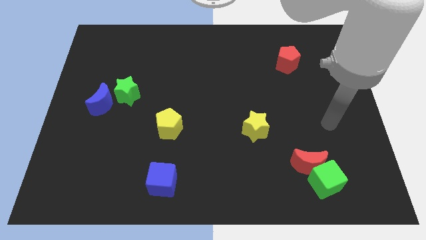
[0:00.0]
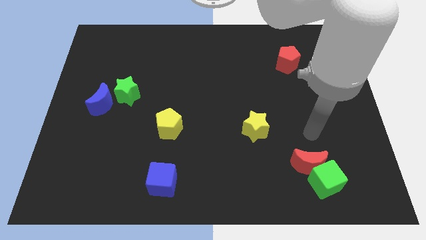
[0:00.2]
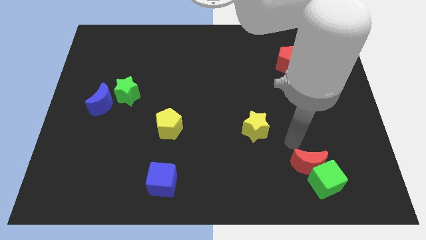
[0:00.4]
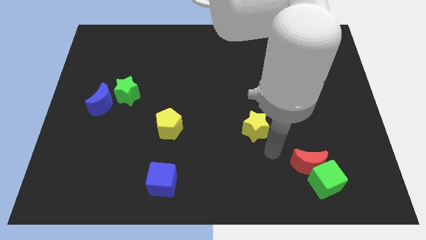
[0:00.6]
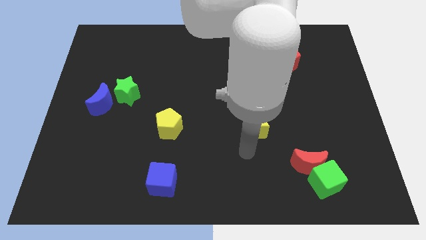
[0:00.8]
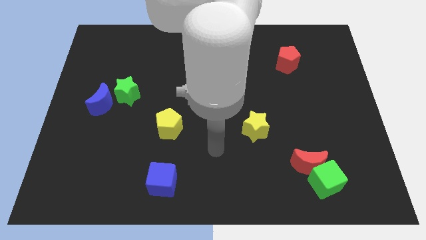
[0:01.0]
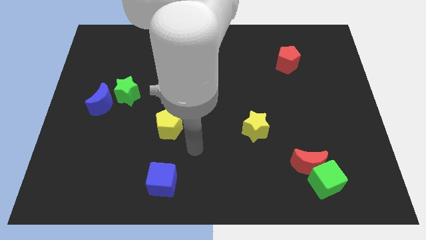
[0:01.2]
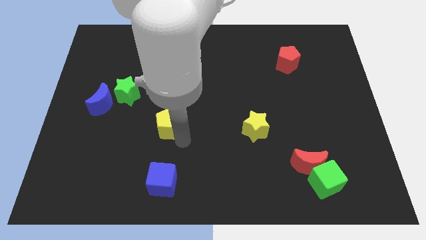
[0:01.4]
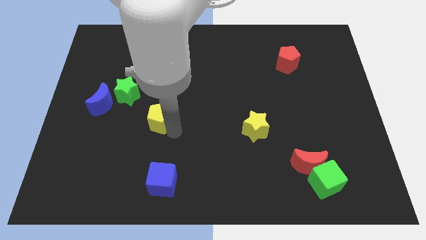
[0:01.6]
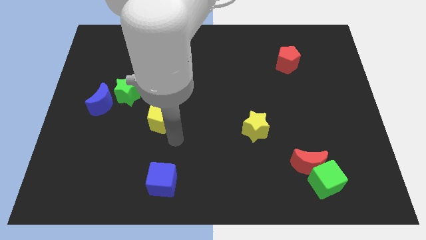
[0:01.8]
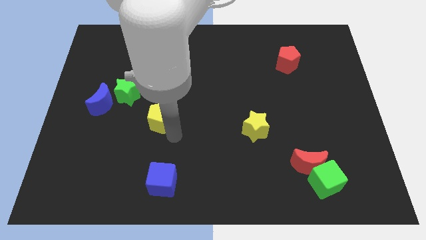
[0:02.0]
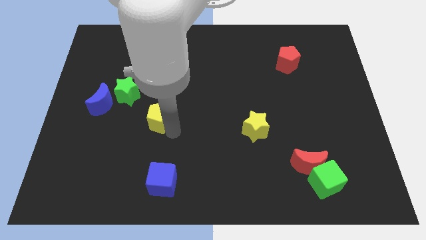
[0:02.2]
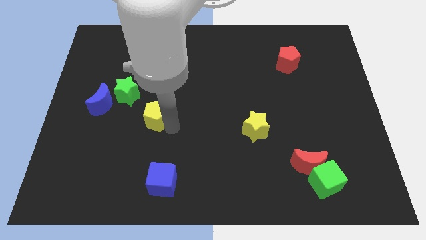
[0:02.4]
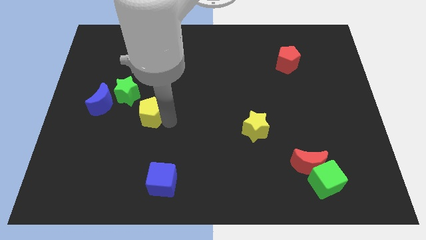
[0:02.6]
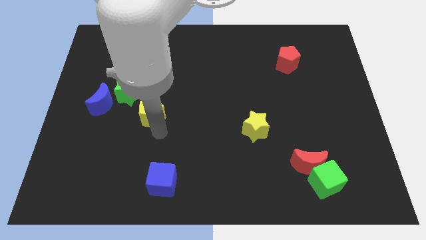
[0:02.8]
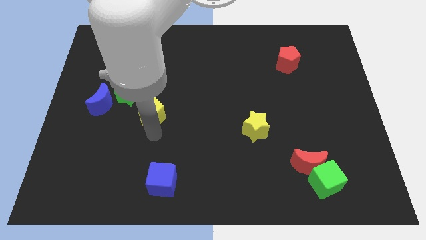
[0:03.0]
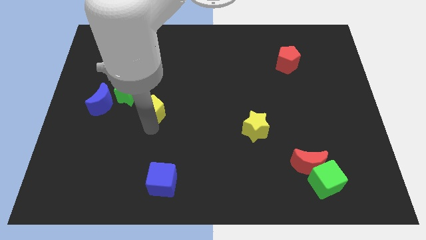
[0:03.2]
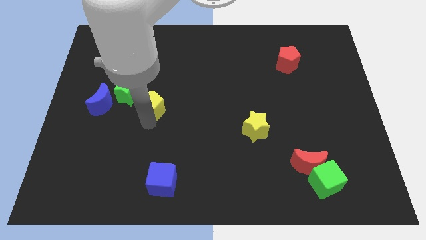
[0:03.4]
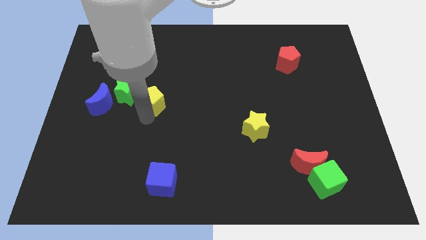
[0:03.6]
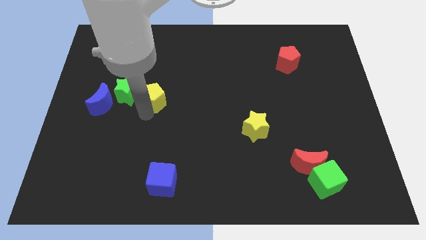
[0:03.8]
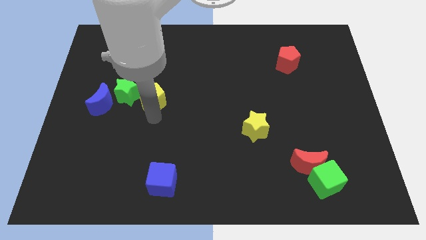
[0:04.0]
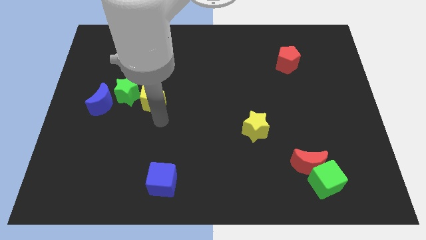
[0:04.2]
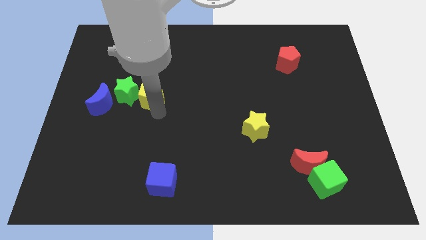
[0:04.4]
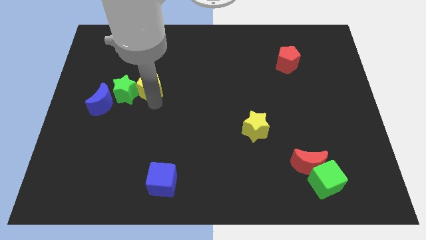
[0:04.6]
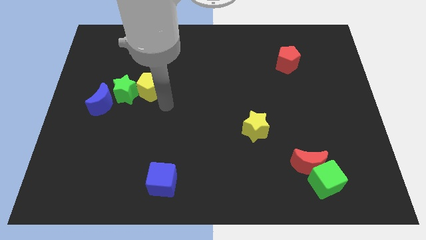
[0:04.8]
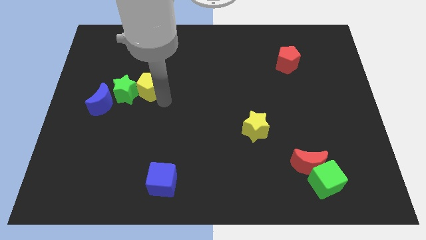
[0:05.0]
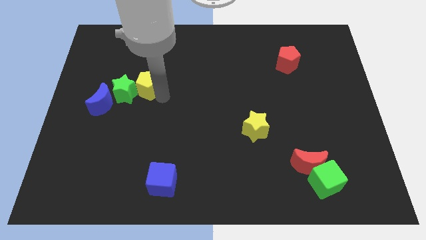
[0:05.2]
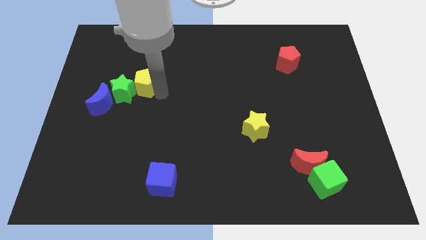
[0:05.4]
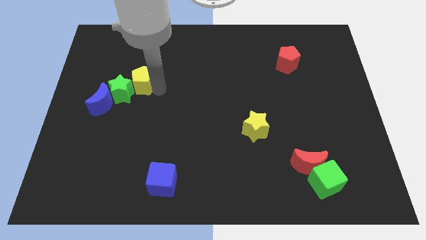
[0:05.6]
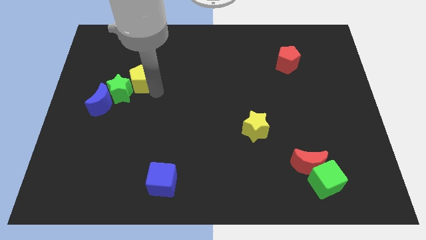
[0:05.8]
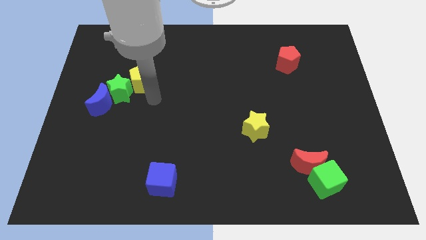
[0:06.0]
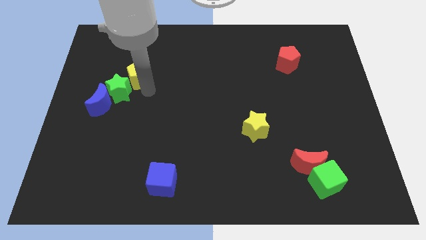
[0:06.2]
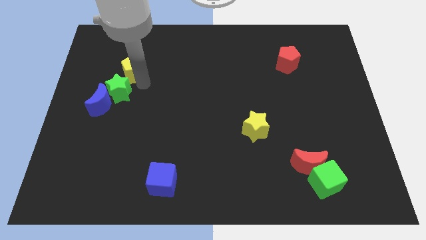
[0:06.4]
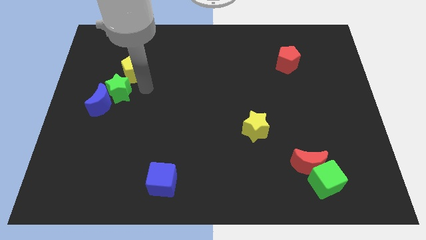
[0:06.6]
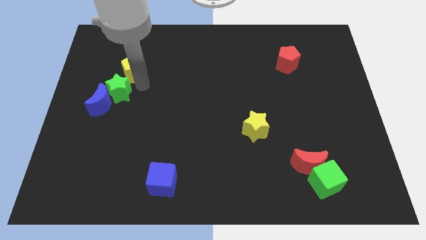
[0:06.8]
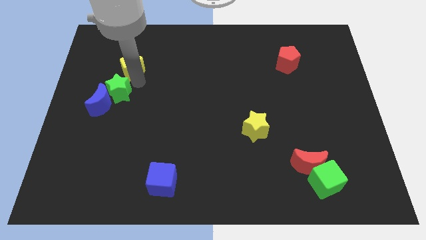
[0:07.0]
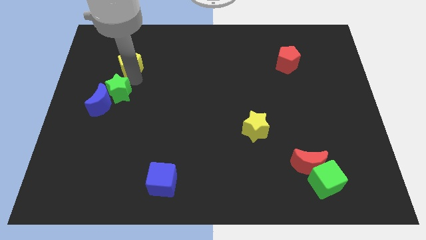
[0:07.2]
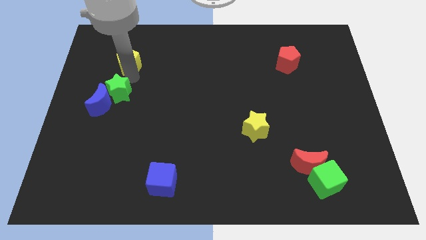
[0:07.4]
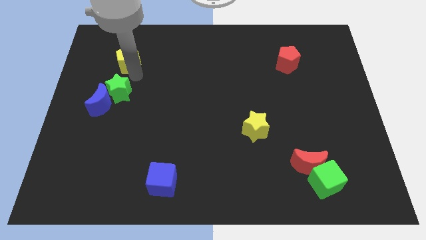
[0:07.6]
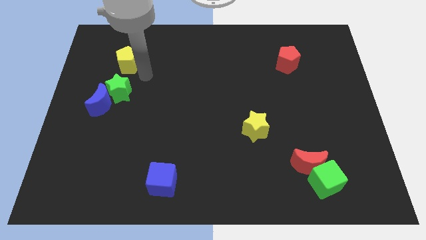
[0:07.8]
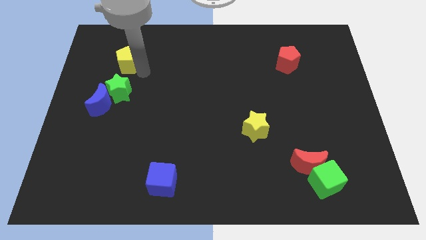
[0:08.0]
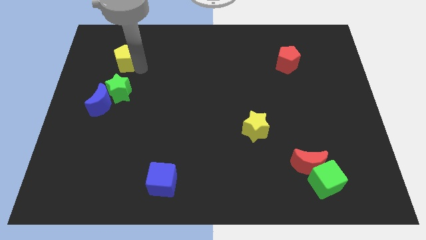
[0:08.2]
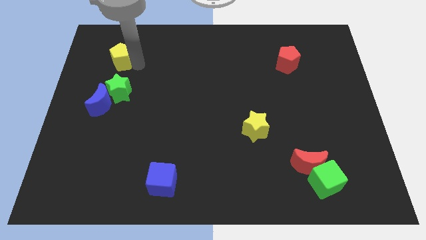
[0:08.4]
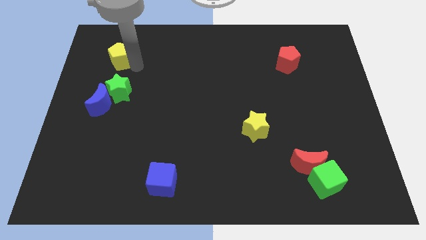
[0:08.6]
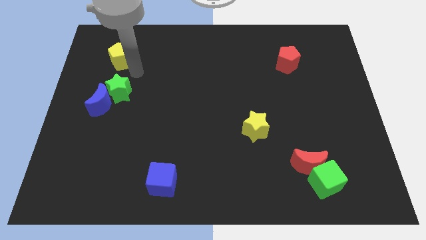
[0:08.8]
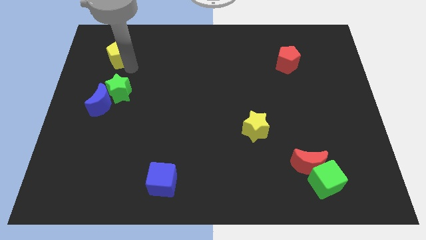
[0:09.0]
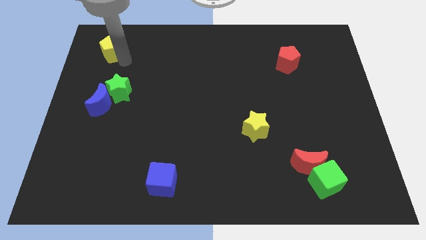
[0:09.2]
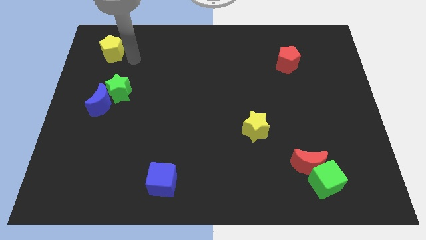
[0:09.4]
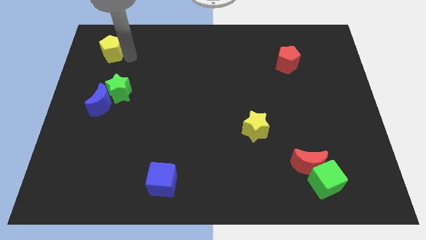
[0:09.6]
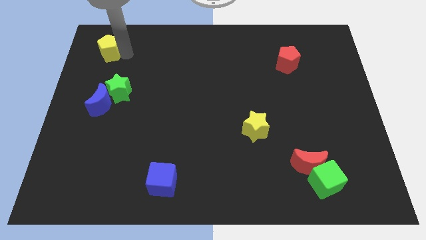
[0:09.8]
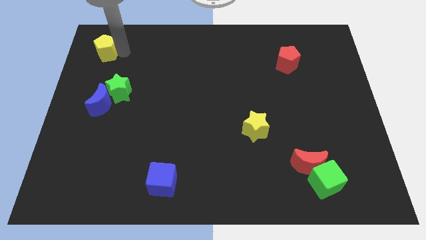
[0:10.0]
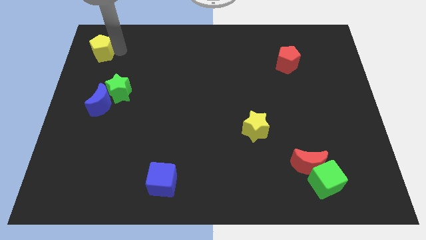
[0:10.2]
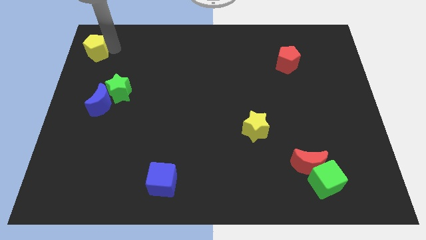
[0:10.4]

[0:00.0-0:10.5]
move the yellow pentagon to the top left corner

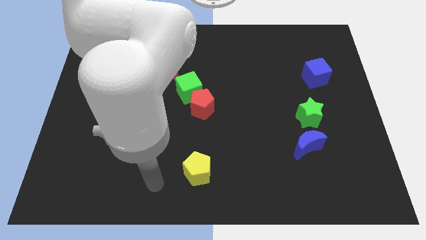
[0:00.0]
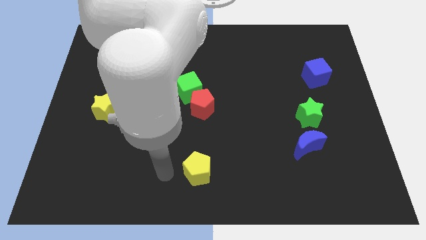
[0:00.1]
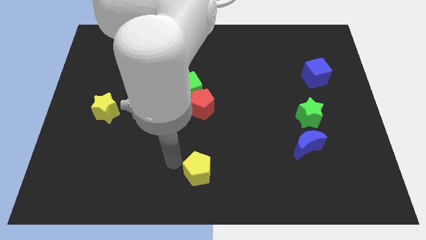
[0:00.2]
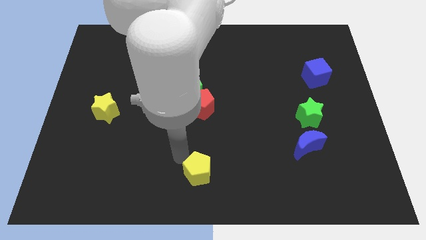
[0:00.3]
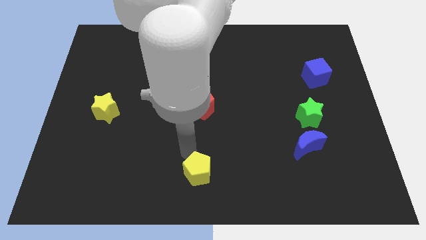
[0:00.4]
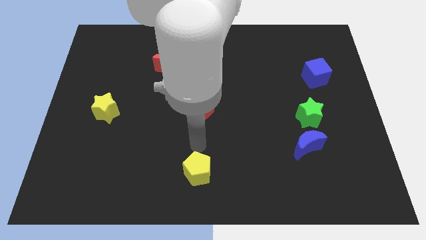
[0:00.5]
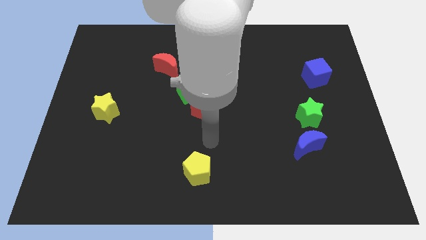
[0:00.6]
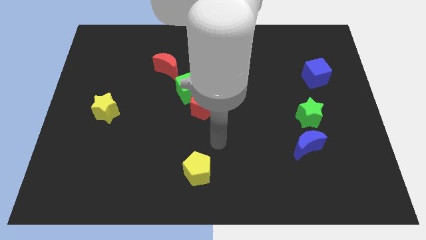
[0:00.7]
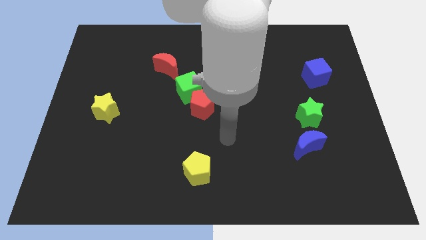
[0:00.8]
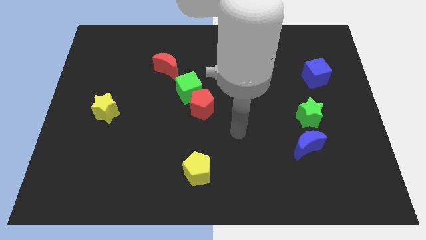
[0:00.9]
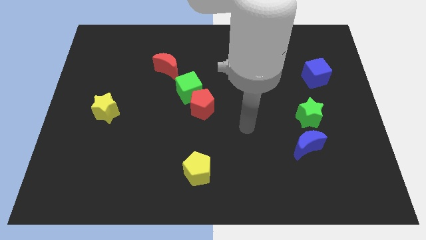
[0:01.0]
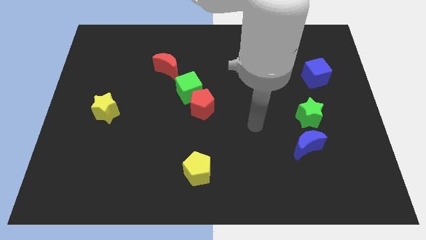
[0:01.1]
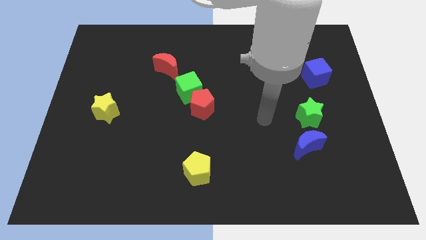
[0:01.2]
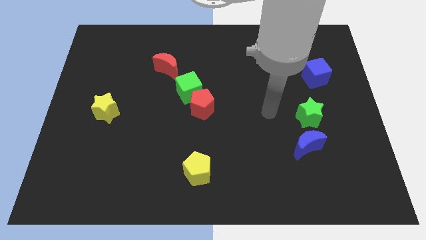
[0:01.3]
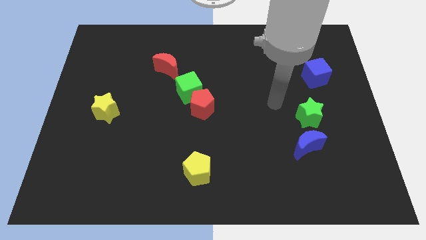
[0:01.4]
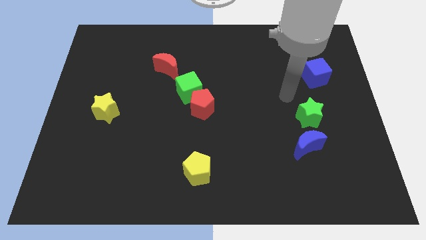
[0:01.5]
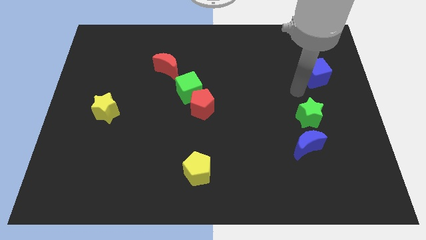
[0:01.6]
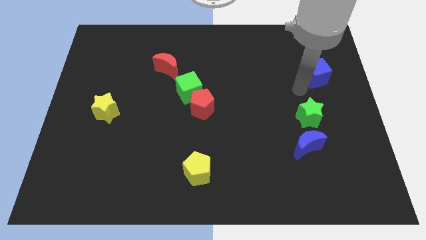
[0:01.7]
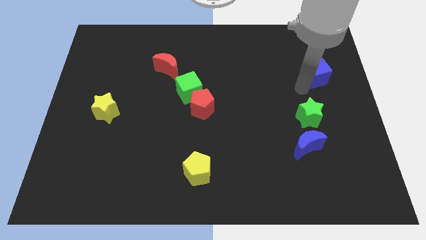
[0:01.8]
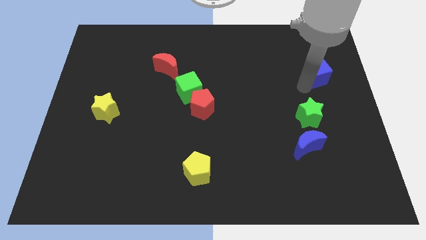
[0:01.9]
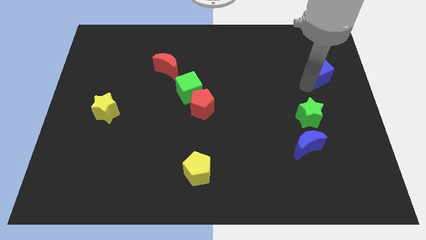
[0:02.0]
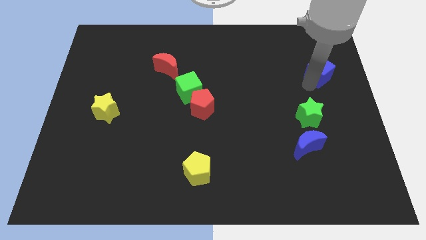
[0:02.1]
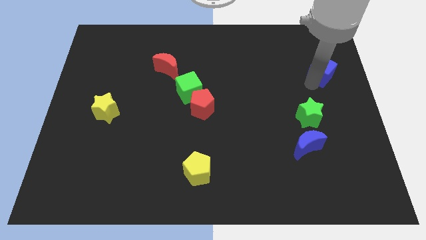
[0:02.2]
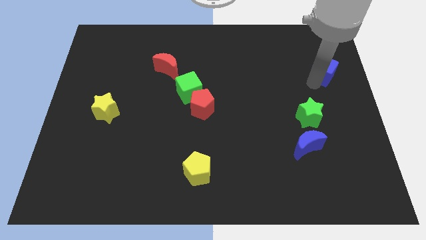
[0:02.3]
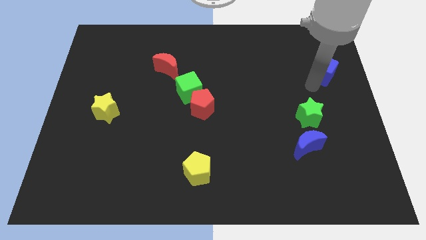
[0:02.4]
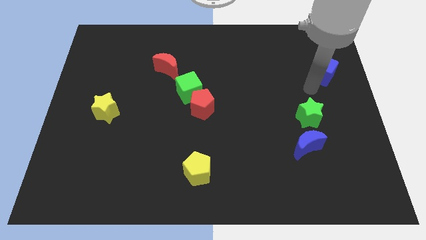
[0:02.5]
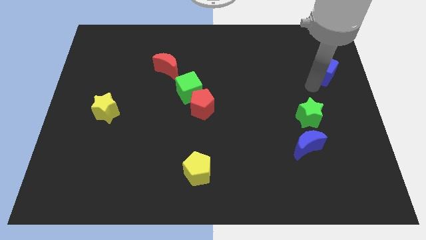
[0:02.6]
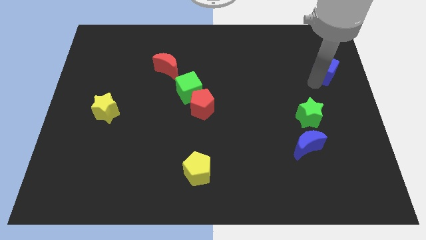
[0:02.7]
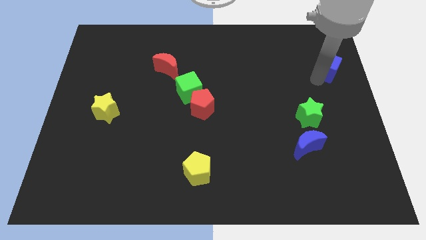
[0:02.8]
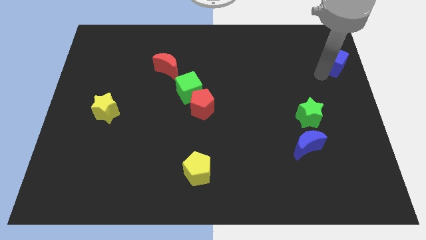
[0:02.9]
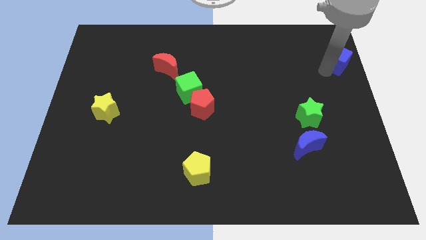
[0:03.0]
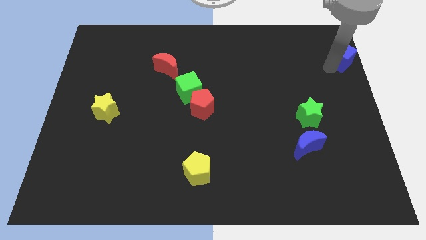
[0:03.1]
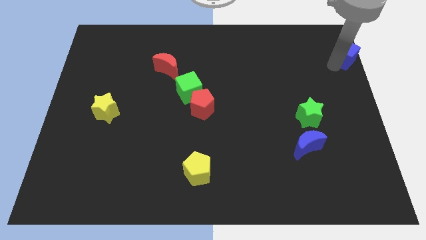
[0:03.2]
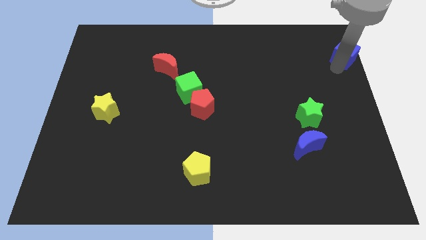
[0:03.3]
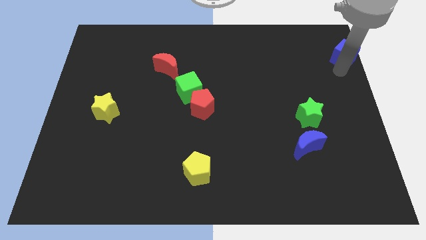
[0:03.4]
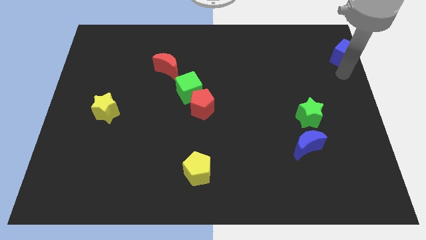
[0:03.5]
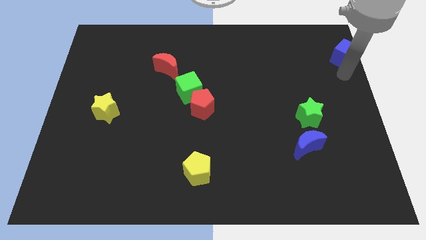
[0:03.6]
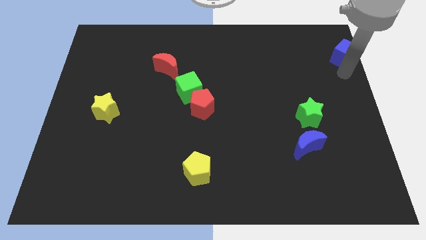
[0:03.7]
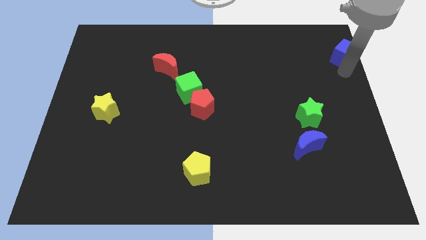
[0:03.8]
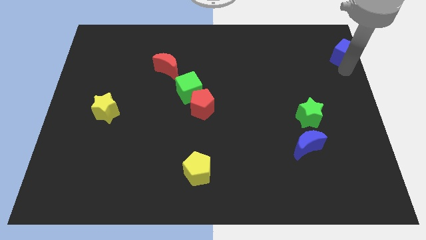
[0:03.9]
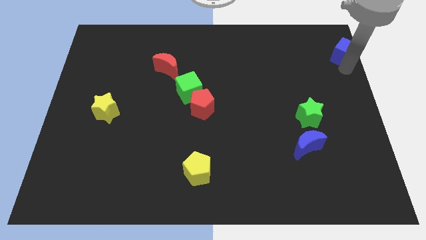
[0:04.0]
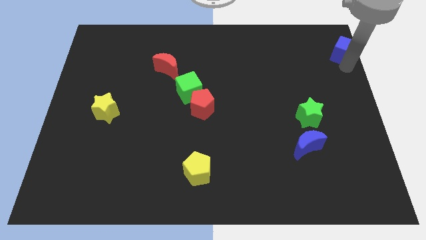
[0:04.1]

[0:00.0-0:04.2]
push the blue cube to the top right
